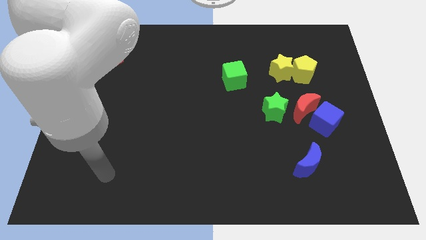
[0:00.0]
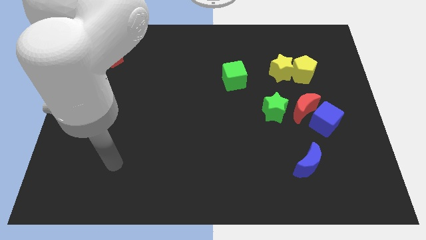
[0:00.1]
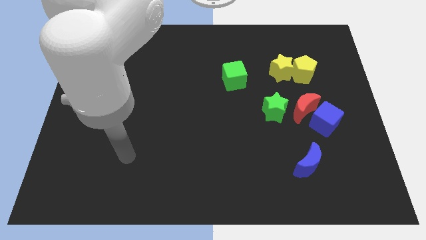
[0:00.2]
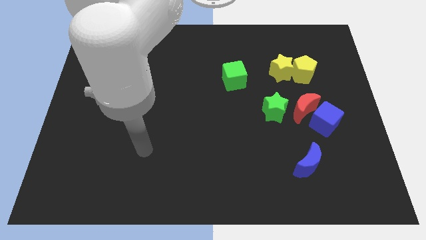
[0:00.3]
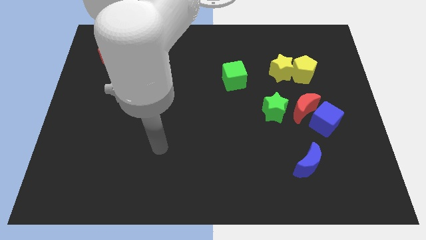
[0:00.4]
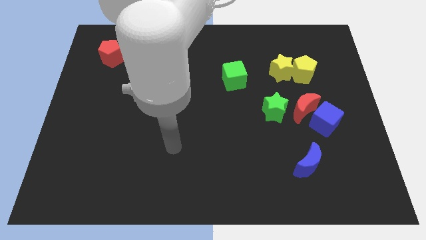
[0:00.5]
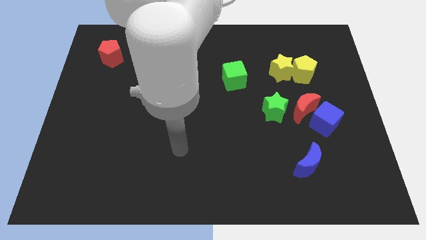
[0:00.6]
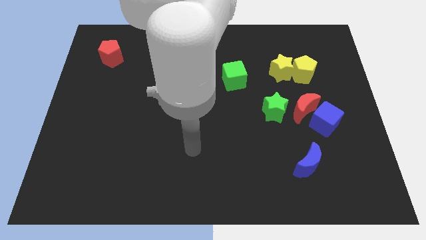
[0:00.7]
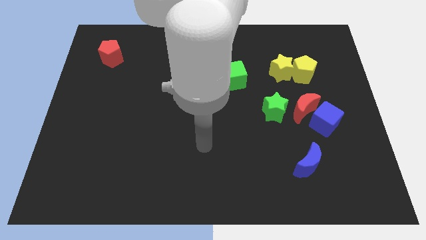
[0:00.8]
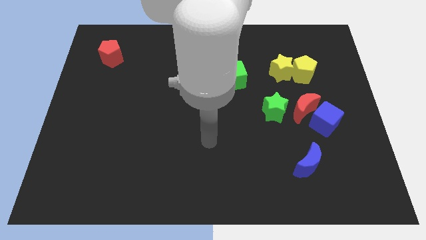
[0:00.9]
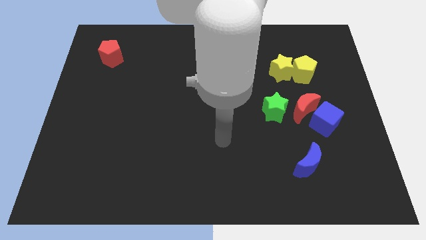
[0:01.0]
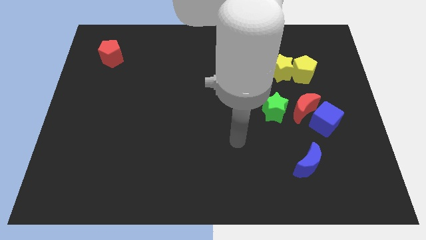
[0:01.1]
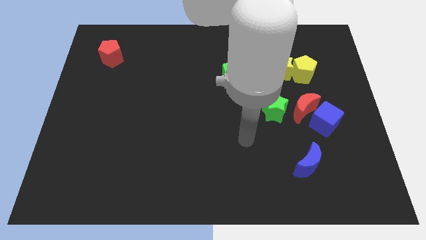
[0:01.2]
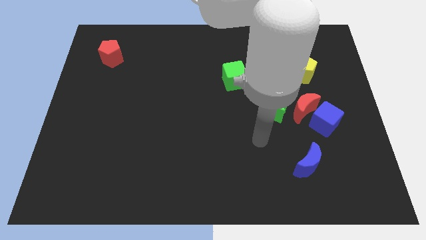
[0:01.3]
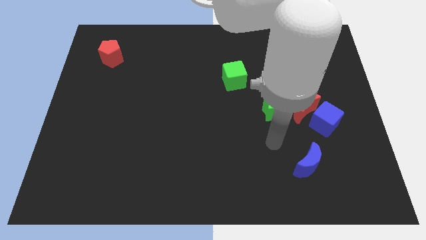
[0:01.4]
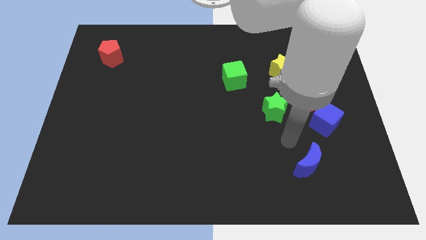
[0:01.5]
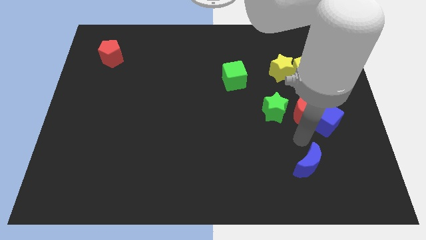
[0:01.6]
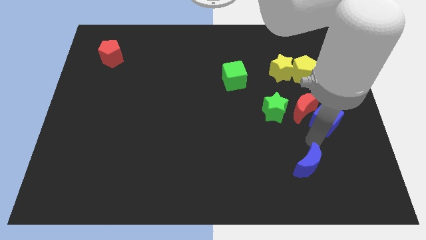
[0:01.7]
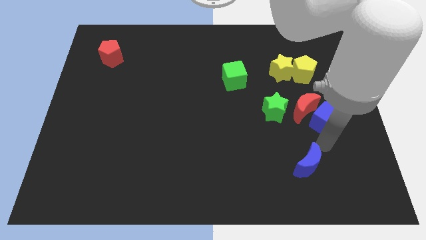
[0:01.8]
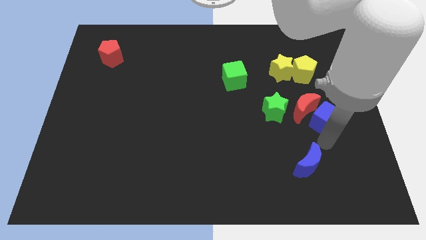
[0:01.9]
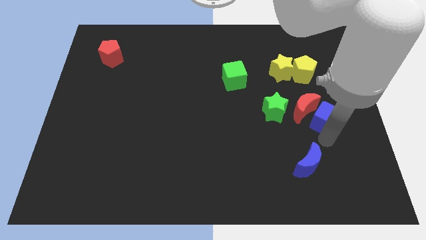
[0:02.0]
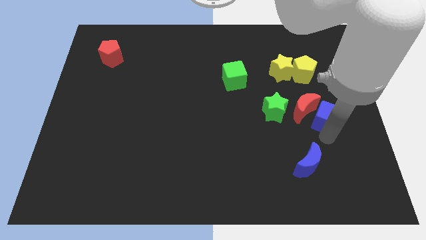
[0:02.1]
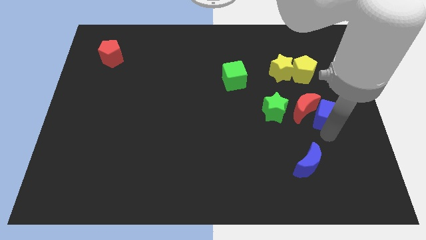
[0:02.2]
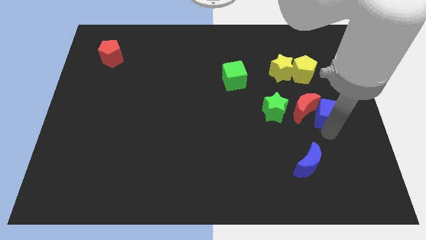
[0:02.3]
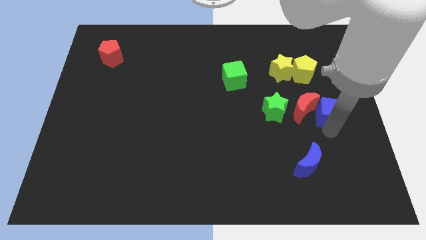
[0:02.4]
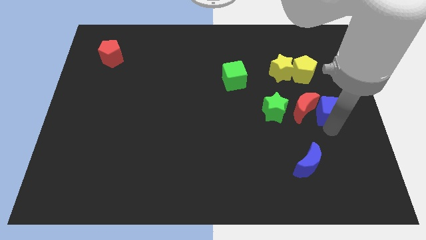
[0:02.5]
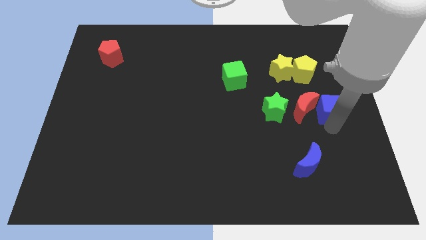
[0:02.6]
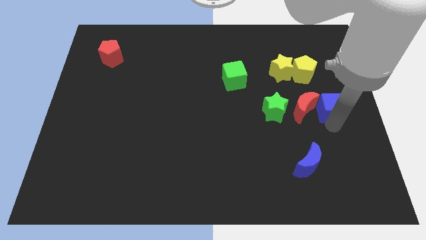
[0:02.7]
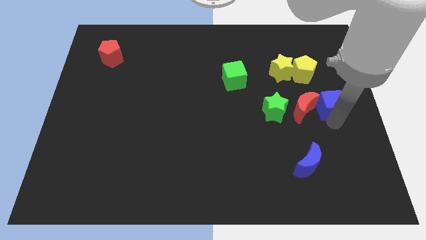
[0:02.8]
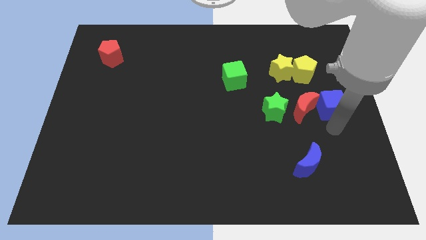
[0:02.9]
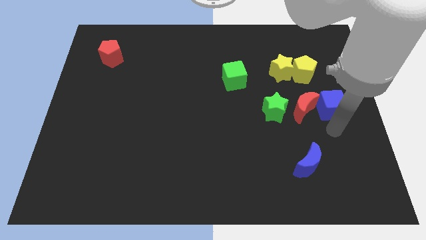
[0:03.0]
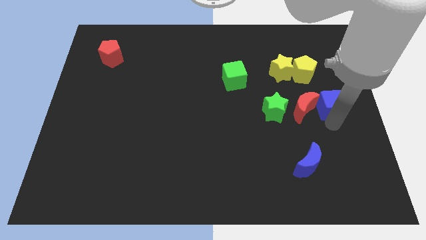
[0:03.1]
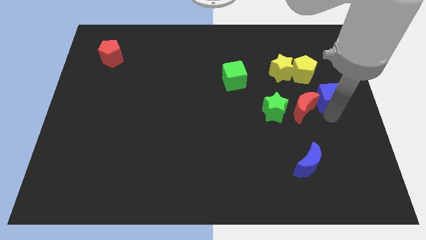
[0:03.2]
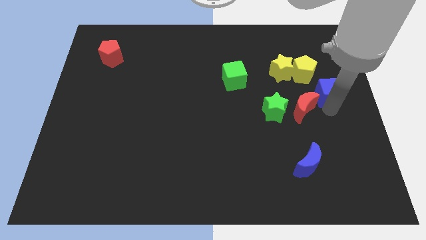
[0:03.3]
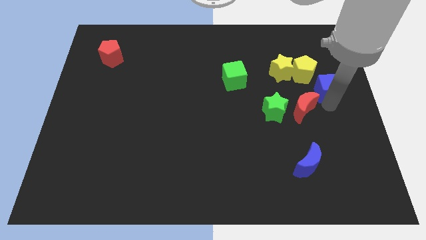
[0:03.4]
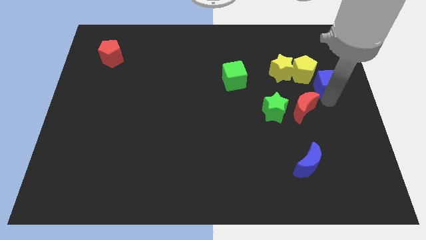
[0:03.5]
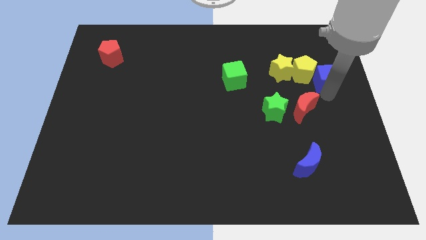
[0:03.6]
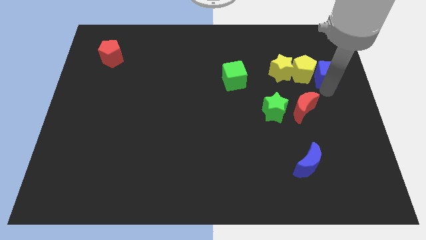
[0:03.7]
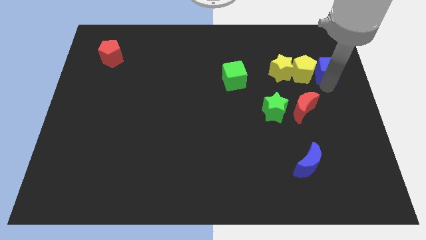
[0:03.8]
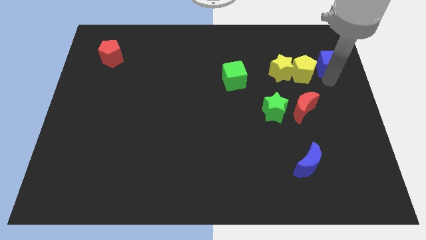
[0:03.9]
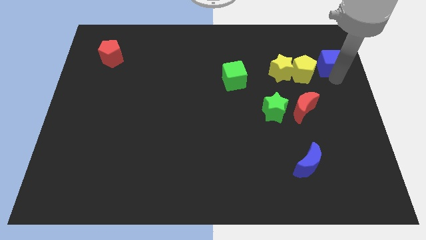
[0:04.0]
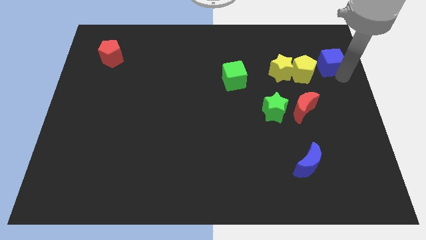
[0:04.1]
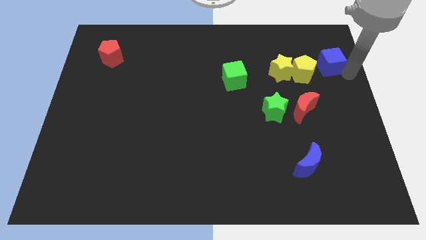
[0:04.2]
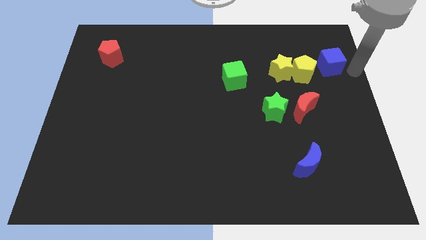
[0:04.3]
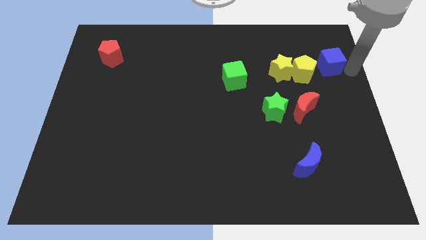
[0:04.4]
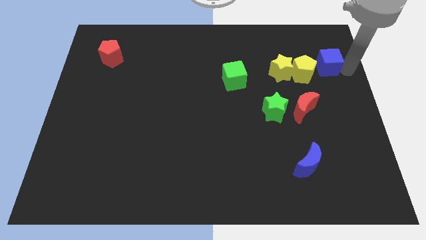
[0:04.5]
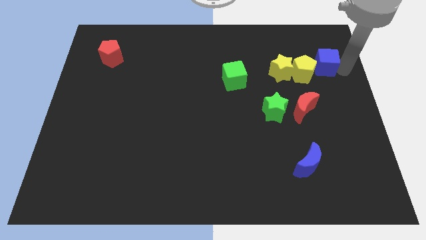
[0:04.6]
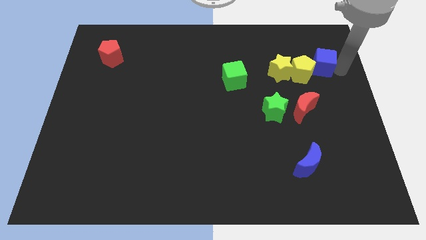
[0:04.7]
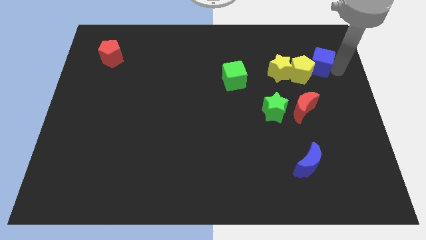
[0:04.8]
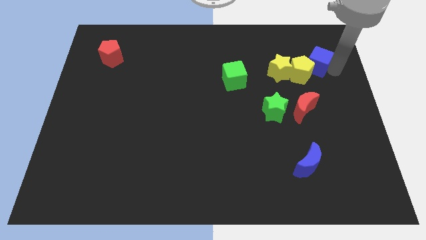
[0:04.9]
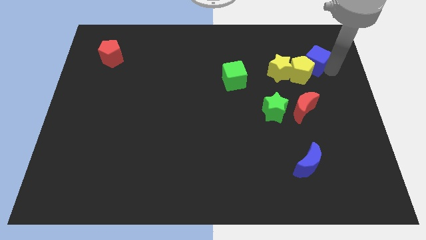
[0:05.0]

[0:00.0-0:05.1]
put the blue cube to the top right side of the yellow star

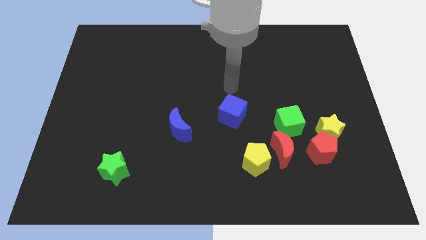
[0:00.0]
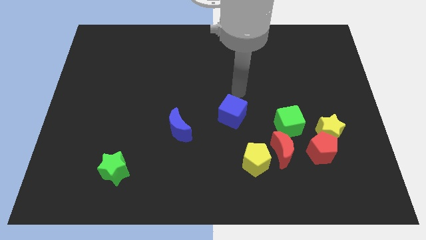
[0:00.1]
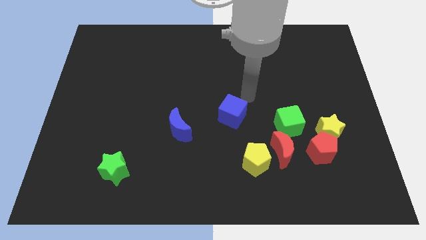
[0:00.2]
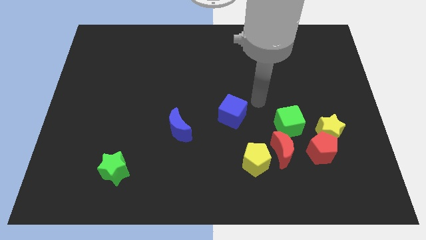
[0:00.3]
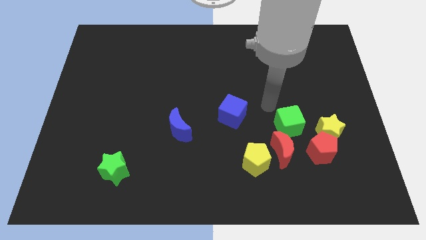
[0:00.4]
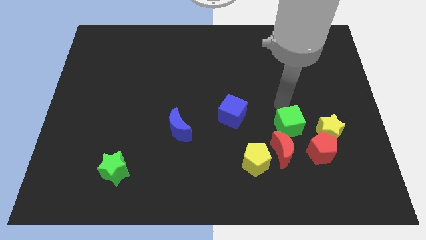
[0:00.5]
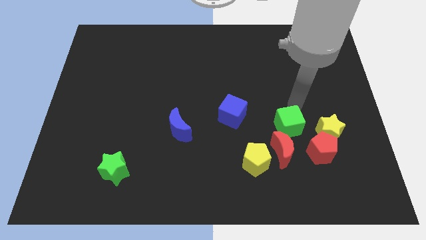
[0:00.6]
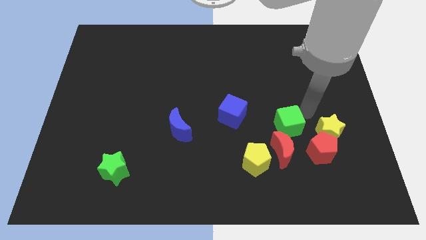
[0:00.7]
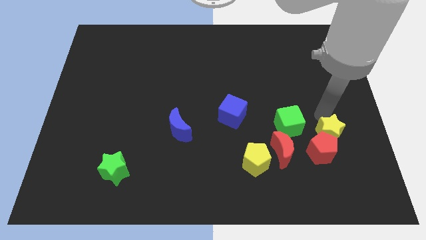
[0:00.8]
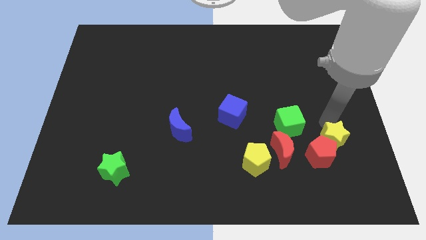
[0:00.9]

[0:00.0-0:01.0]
move the red pentagon to the bottom right of the red moon

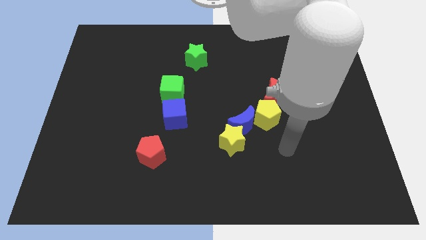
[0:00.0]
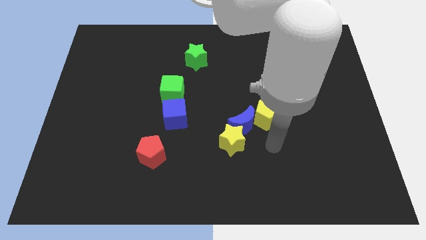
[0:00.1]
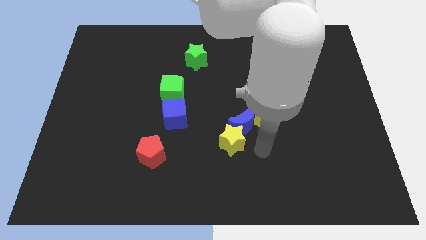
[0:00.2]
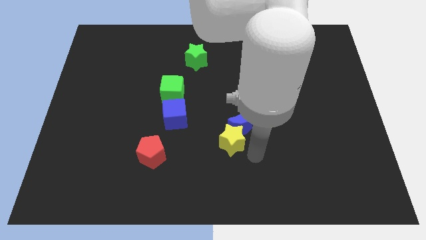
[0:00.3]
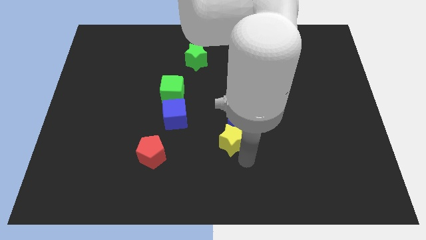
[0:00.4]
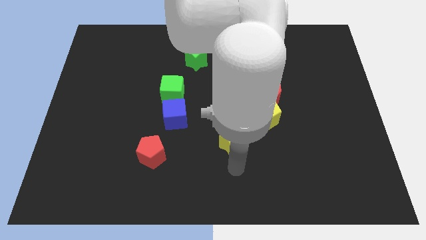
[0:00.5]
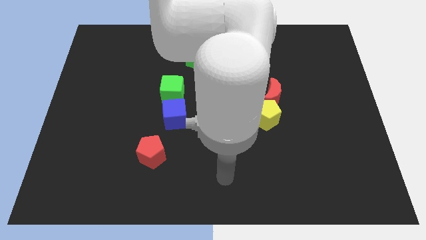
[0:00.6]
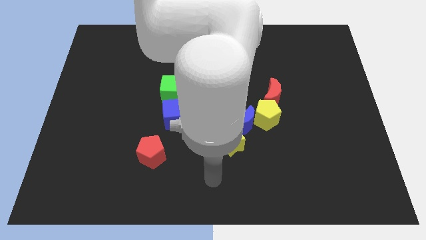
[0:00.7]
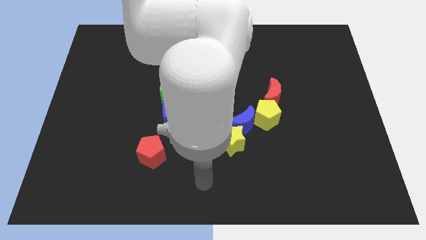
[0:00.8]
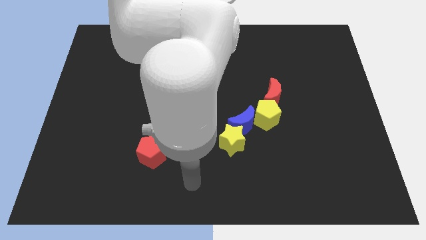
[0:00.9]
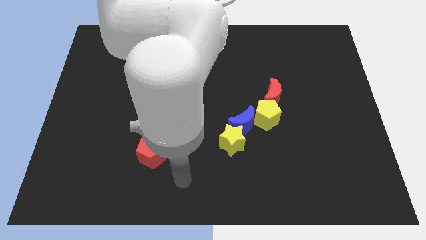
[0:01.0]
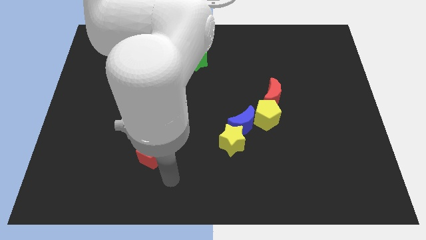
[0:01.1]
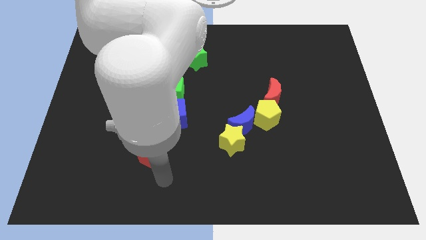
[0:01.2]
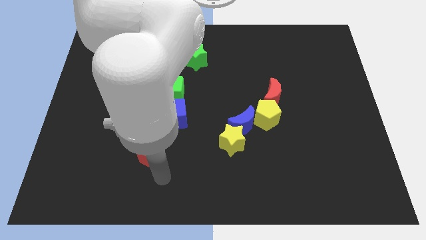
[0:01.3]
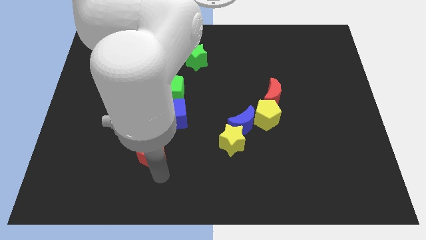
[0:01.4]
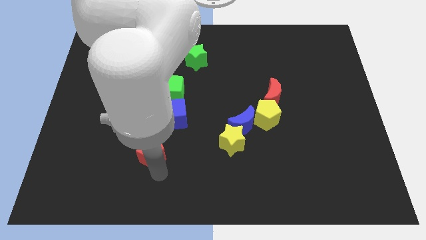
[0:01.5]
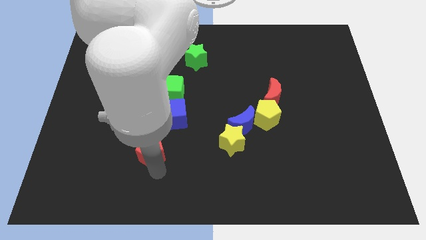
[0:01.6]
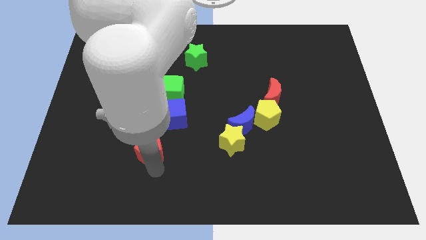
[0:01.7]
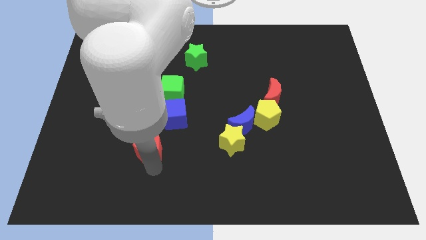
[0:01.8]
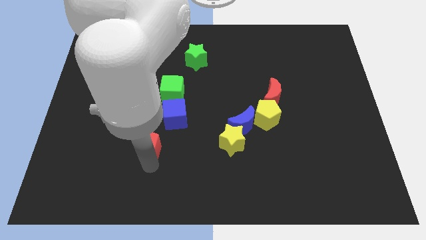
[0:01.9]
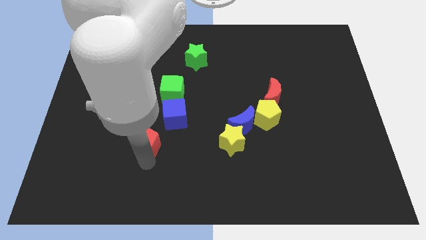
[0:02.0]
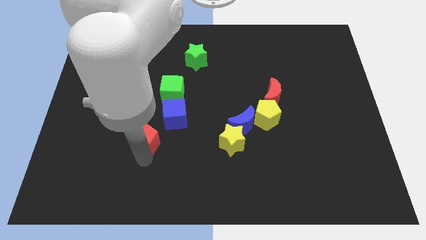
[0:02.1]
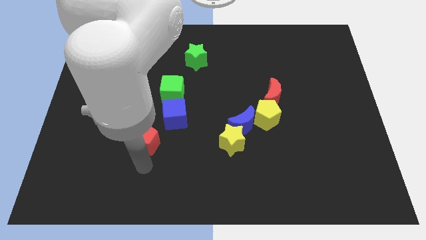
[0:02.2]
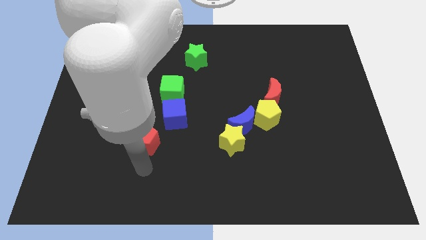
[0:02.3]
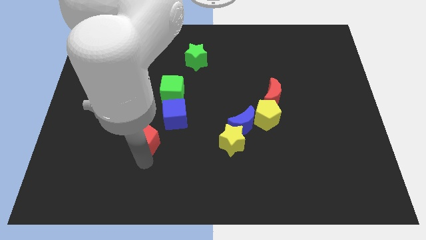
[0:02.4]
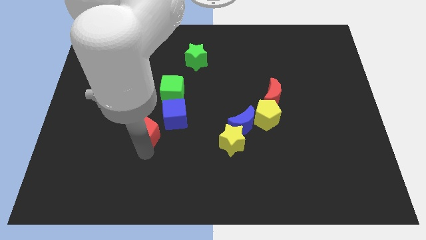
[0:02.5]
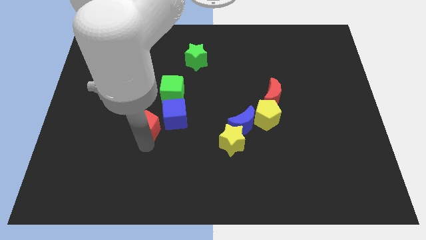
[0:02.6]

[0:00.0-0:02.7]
slide the red pentagon to the bottom left side of the green cube
